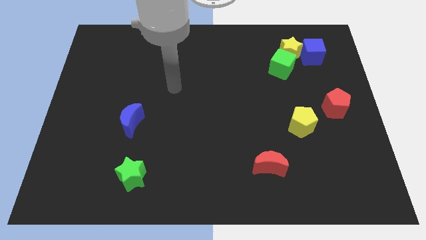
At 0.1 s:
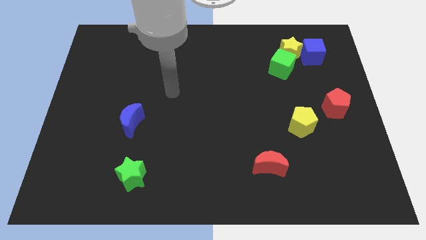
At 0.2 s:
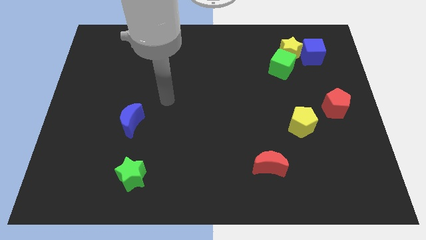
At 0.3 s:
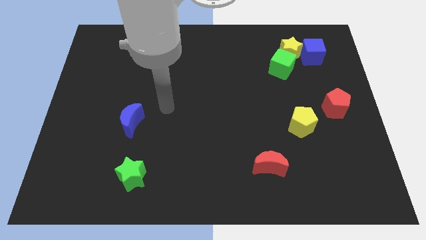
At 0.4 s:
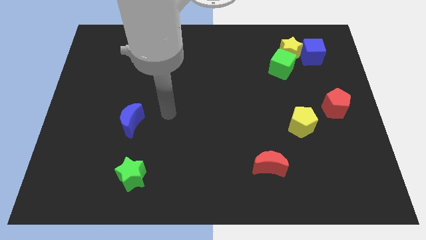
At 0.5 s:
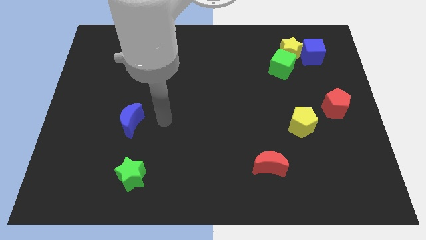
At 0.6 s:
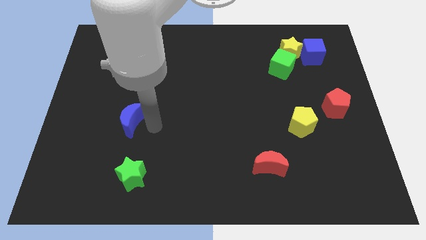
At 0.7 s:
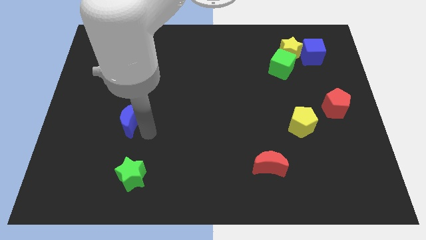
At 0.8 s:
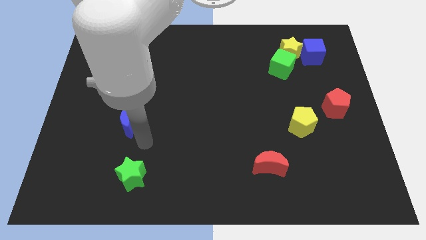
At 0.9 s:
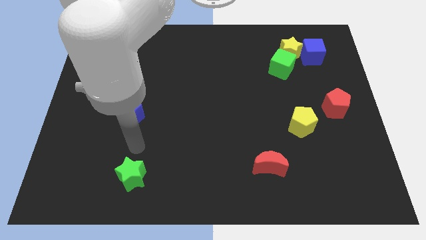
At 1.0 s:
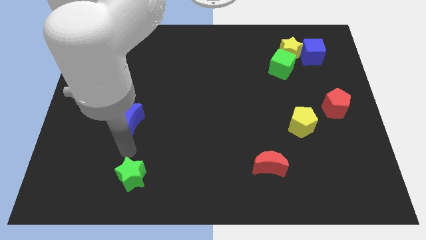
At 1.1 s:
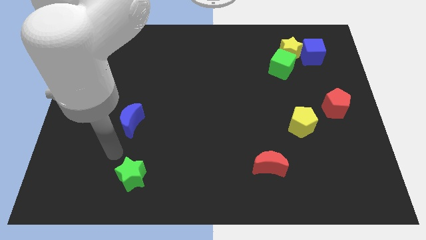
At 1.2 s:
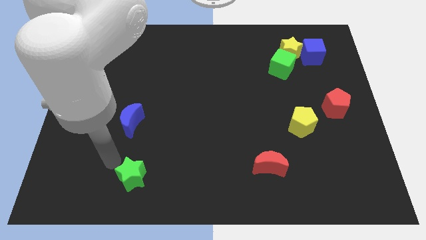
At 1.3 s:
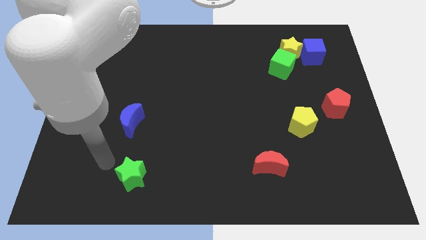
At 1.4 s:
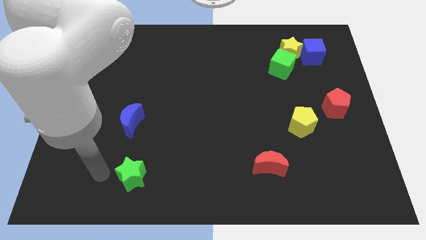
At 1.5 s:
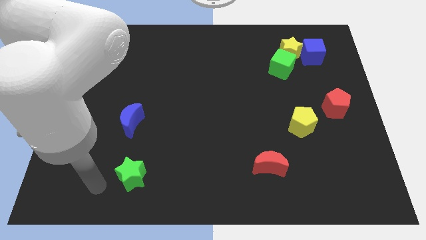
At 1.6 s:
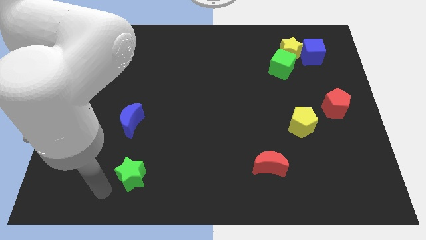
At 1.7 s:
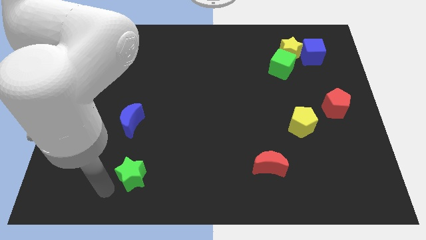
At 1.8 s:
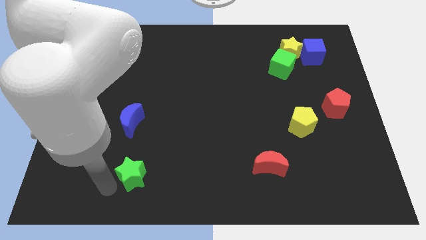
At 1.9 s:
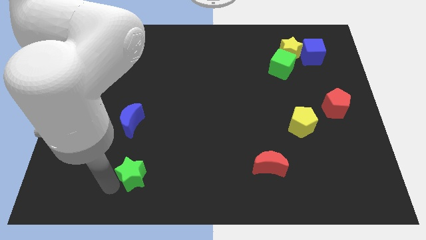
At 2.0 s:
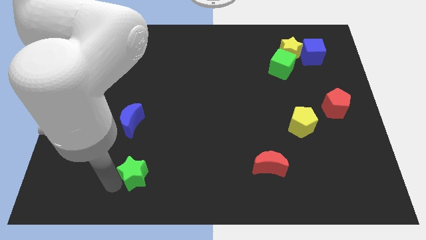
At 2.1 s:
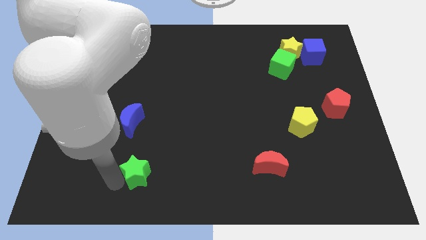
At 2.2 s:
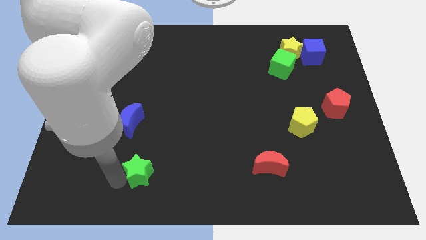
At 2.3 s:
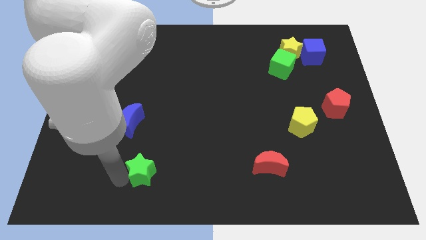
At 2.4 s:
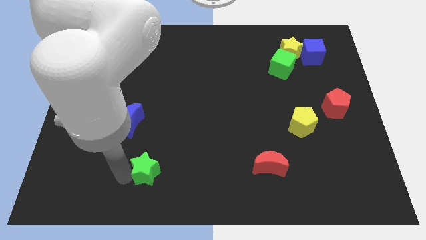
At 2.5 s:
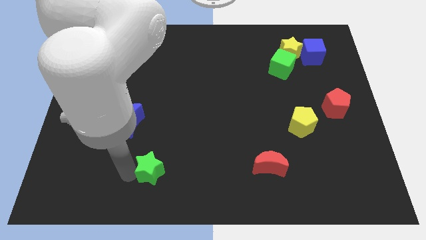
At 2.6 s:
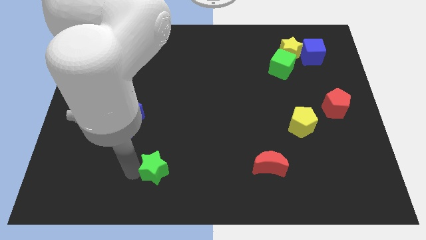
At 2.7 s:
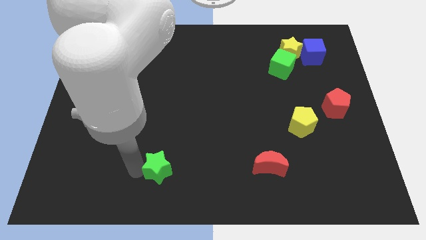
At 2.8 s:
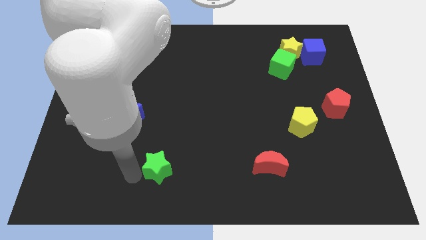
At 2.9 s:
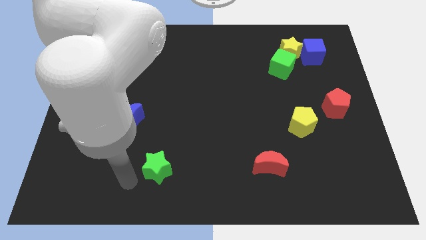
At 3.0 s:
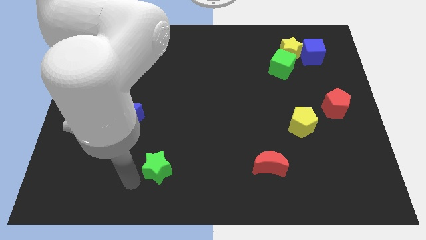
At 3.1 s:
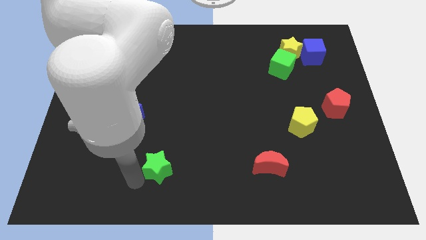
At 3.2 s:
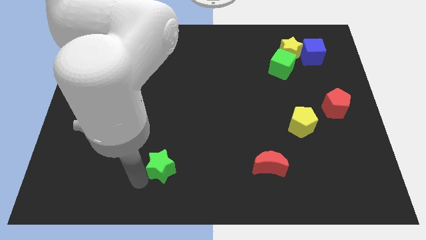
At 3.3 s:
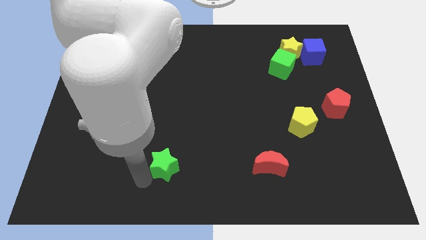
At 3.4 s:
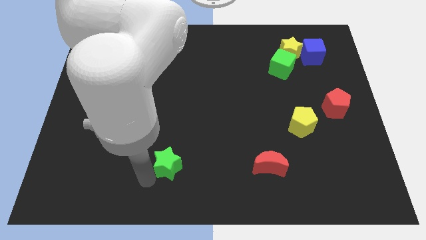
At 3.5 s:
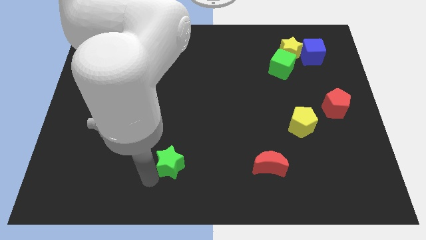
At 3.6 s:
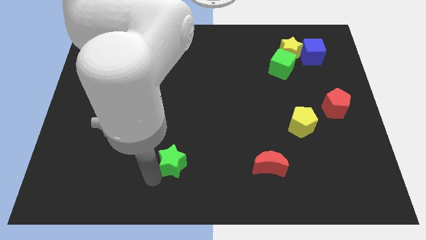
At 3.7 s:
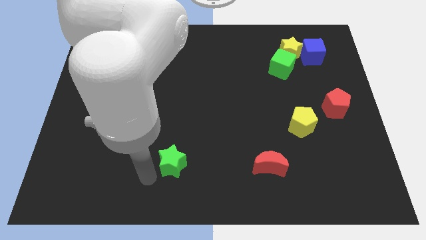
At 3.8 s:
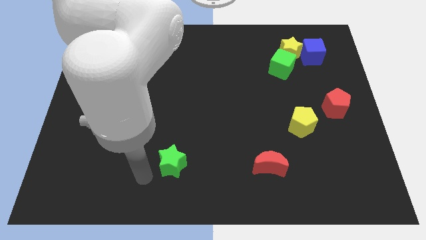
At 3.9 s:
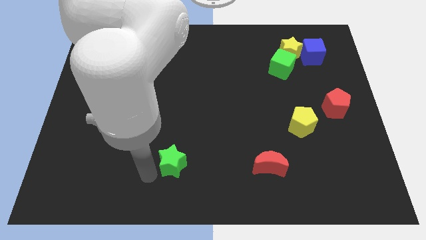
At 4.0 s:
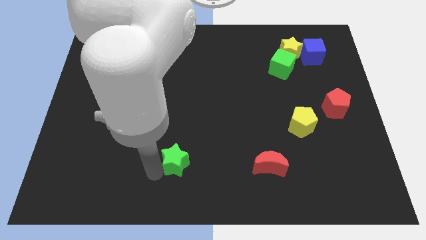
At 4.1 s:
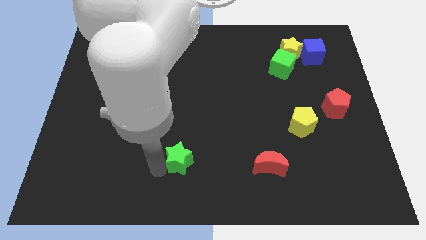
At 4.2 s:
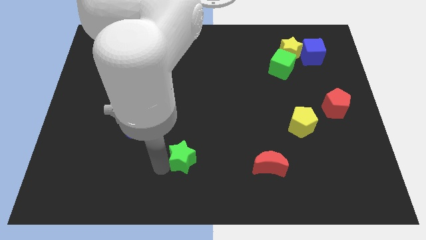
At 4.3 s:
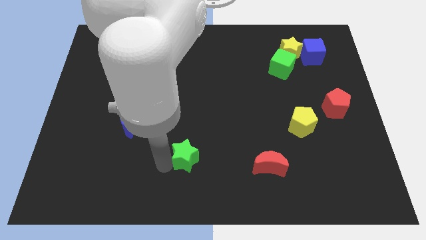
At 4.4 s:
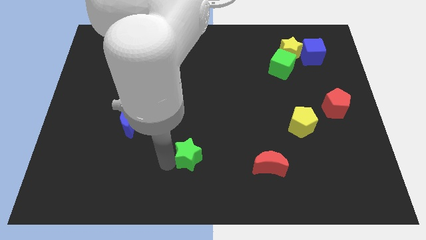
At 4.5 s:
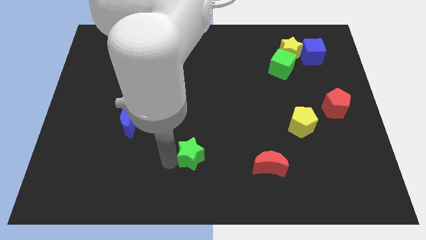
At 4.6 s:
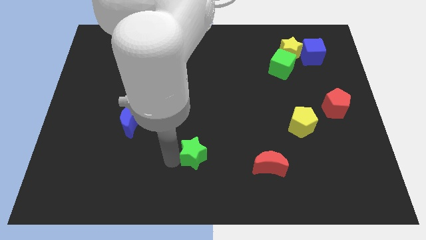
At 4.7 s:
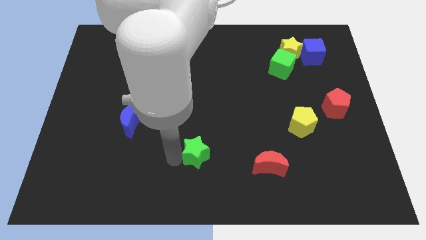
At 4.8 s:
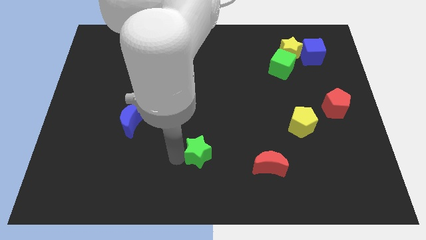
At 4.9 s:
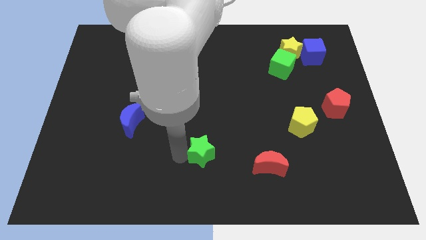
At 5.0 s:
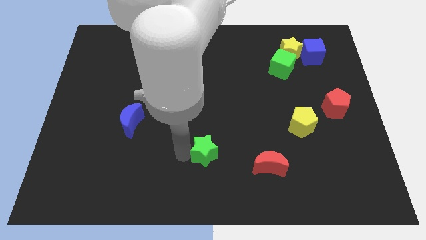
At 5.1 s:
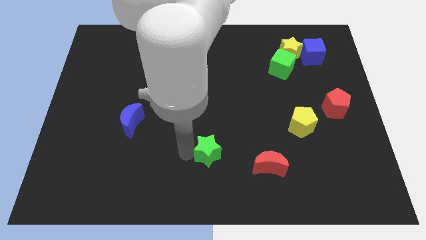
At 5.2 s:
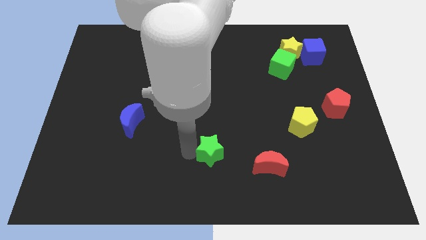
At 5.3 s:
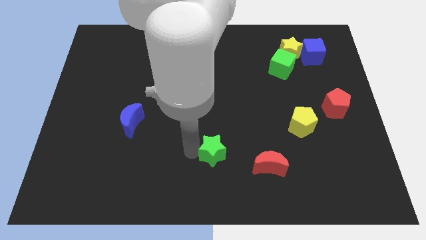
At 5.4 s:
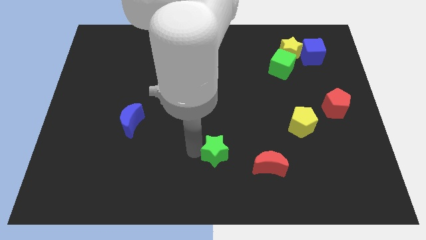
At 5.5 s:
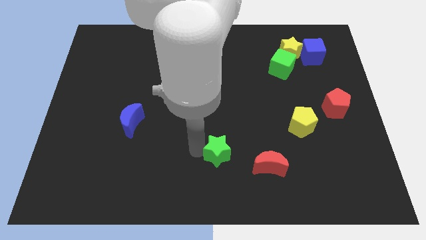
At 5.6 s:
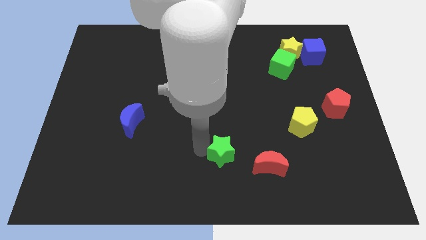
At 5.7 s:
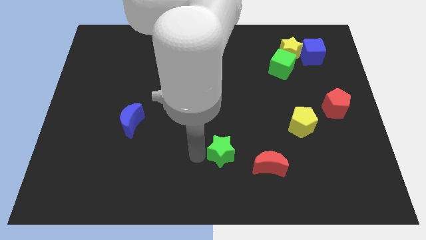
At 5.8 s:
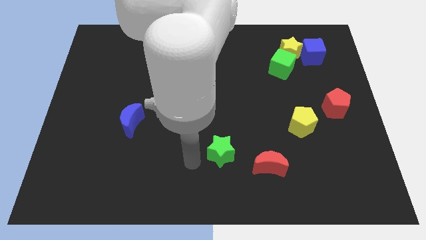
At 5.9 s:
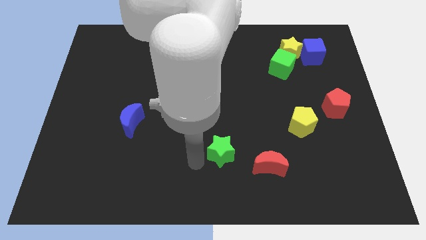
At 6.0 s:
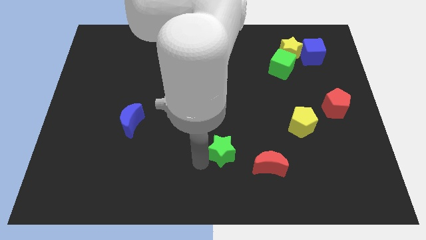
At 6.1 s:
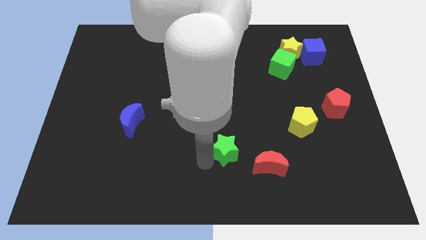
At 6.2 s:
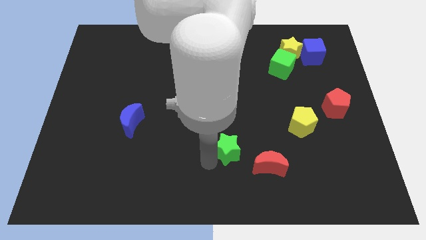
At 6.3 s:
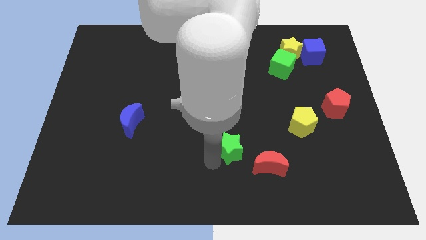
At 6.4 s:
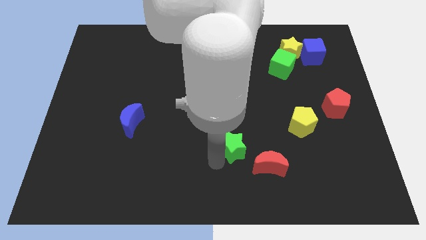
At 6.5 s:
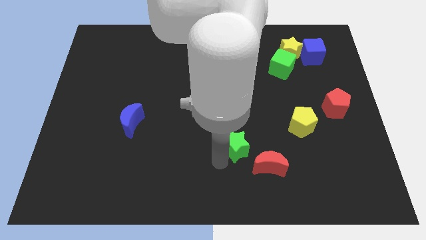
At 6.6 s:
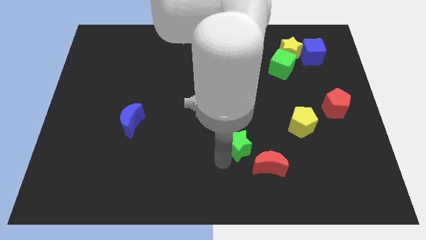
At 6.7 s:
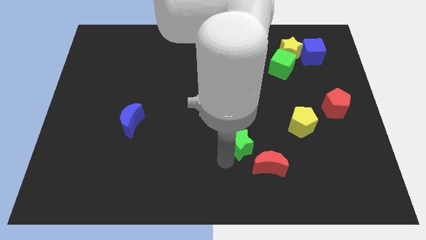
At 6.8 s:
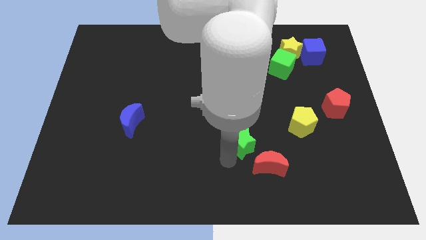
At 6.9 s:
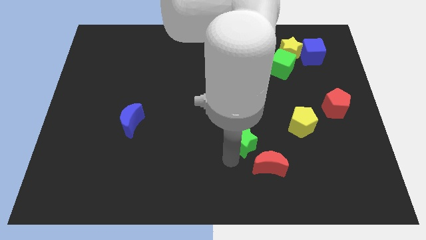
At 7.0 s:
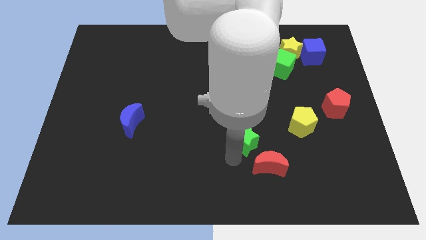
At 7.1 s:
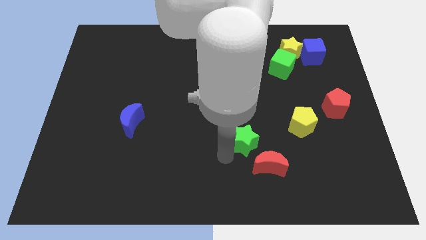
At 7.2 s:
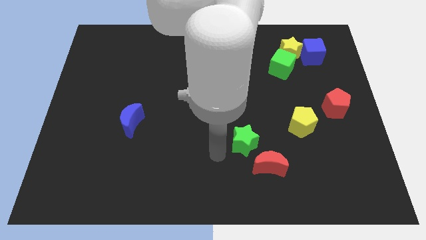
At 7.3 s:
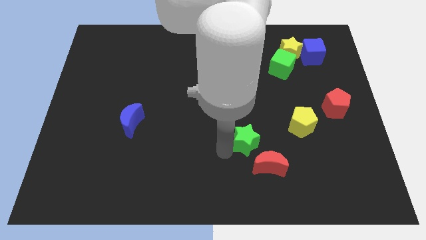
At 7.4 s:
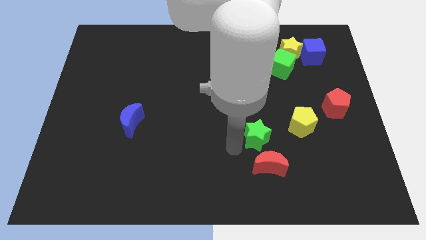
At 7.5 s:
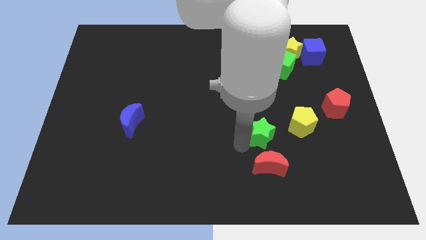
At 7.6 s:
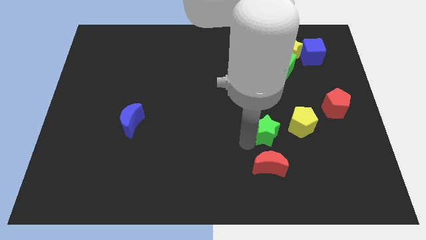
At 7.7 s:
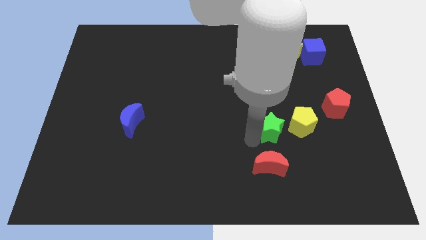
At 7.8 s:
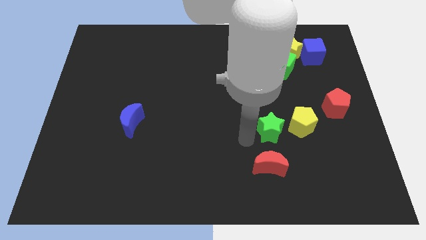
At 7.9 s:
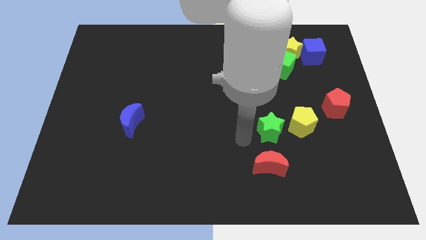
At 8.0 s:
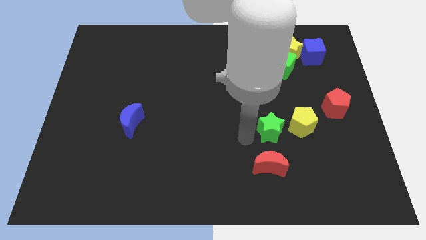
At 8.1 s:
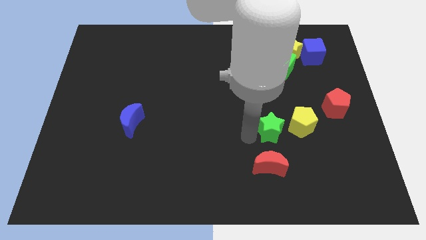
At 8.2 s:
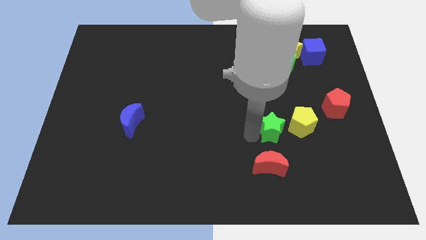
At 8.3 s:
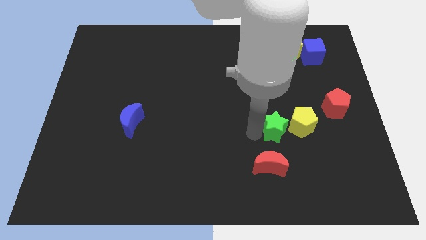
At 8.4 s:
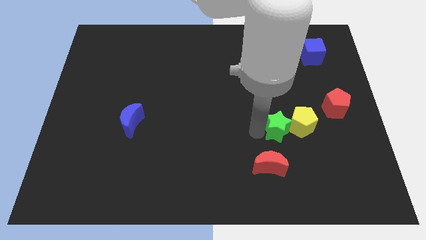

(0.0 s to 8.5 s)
push the green star towards the yellow pentagon
